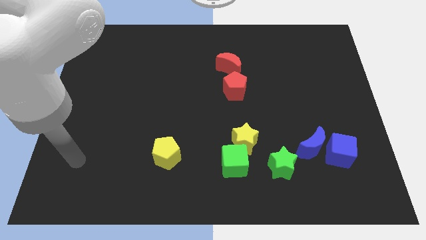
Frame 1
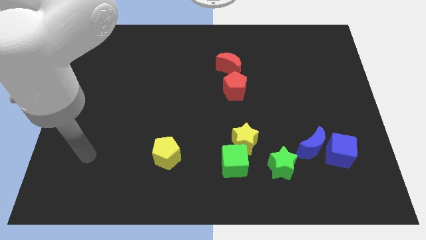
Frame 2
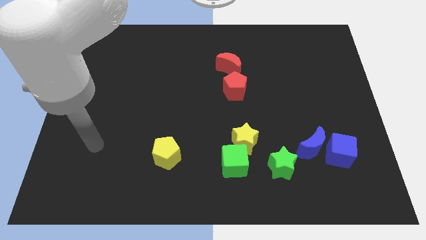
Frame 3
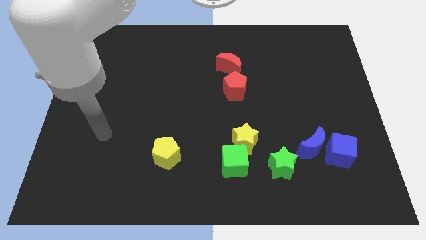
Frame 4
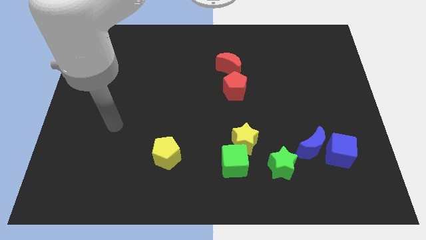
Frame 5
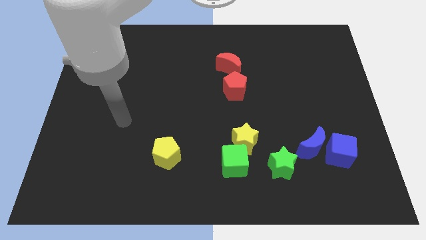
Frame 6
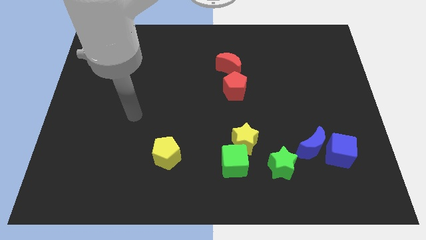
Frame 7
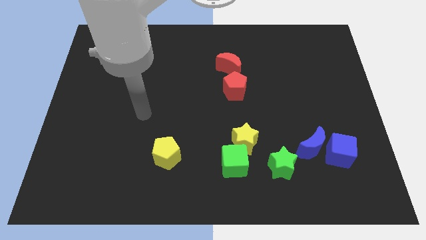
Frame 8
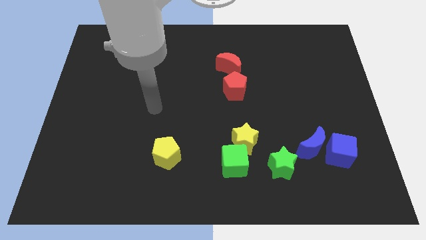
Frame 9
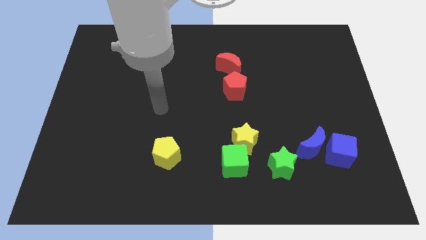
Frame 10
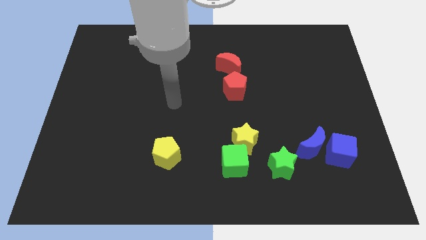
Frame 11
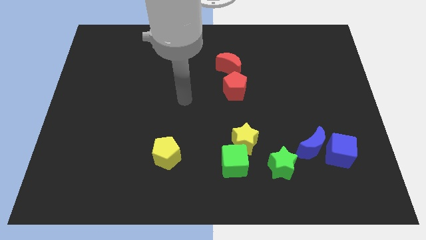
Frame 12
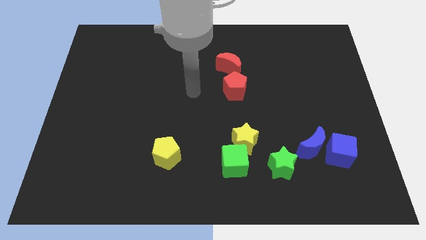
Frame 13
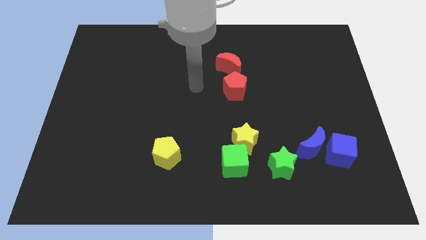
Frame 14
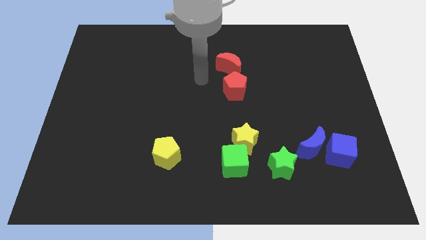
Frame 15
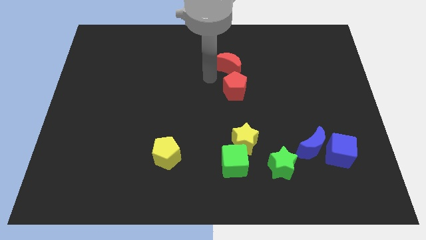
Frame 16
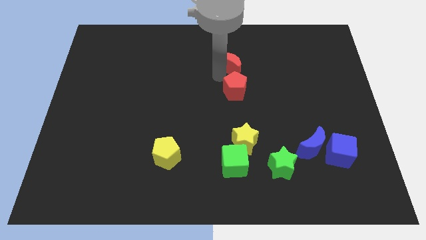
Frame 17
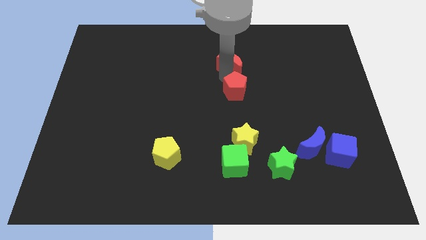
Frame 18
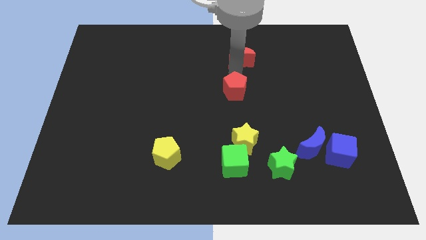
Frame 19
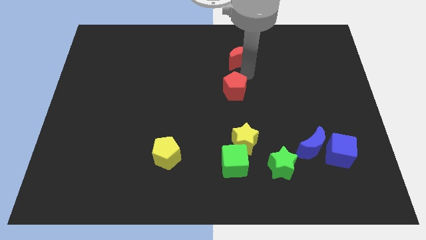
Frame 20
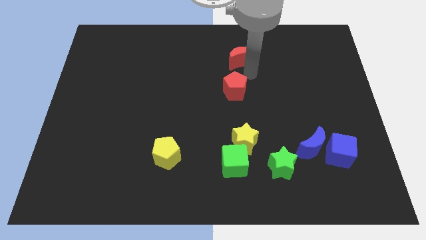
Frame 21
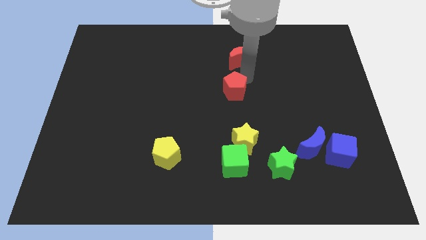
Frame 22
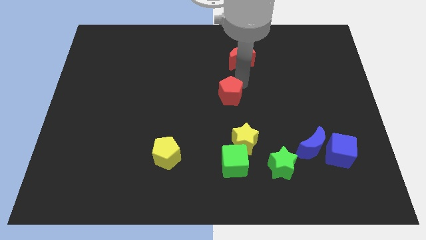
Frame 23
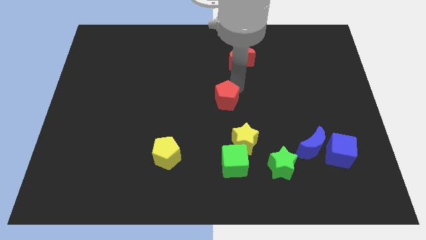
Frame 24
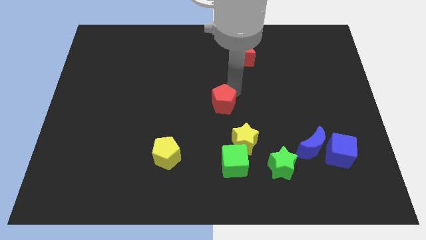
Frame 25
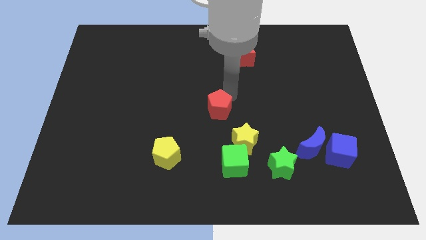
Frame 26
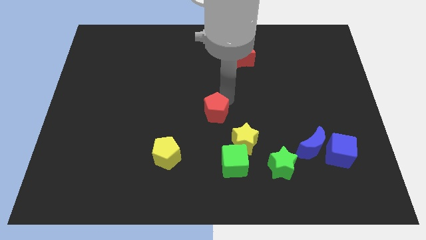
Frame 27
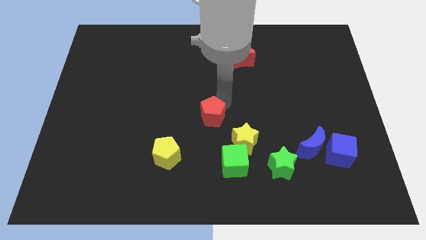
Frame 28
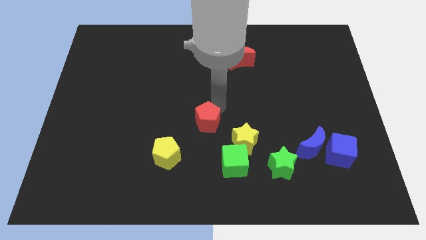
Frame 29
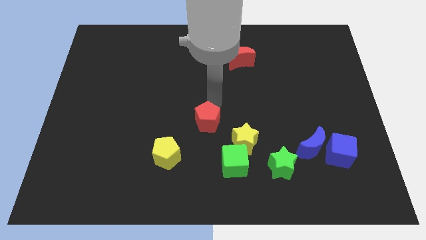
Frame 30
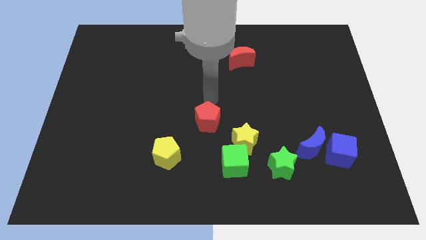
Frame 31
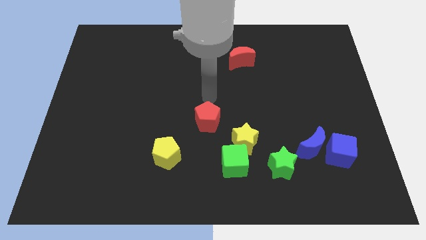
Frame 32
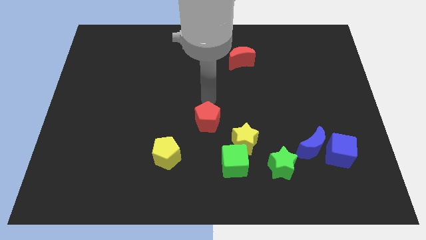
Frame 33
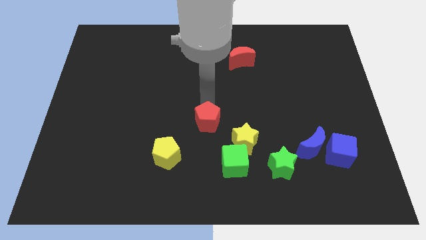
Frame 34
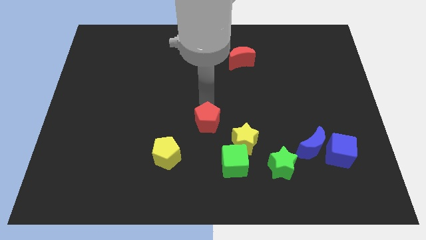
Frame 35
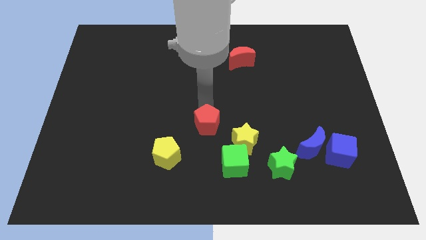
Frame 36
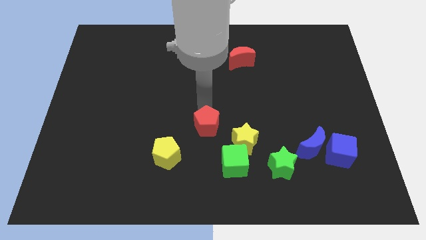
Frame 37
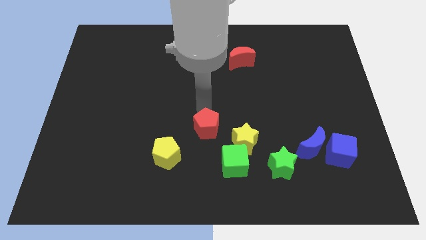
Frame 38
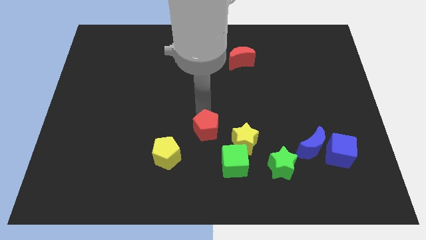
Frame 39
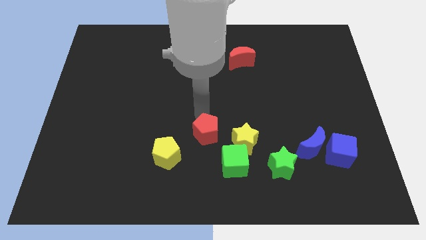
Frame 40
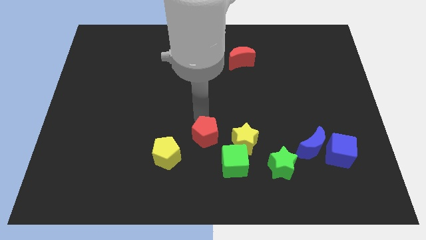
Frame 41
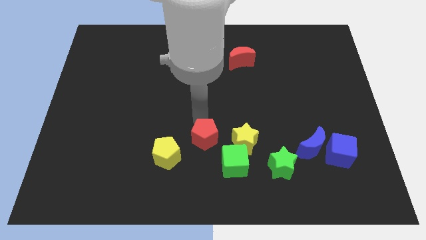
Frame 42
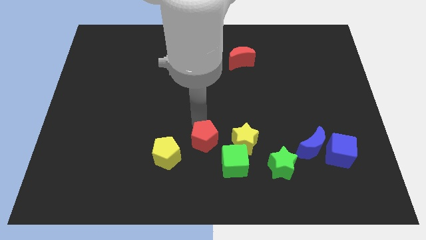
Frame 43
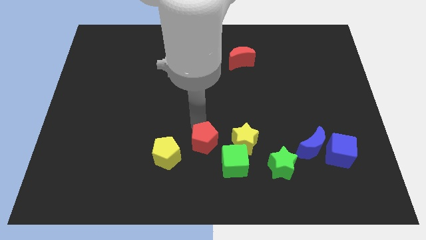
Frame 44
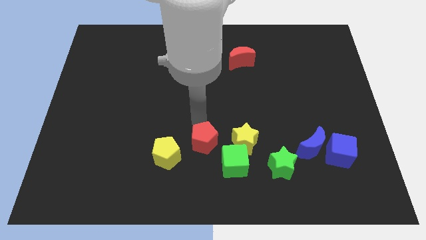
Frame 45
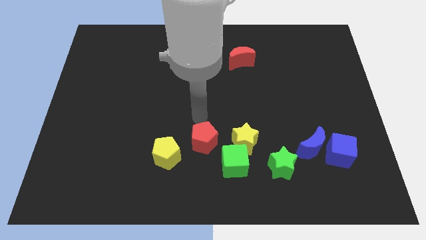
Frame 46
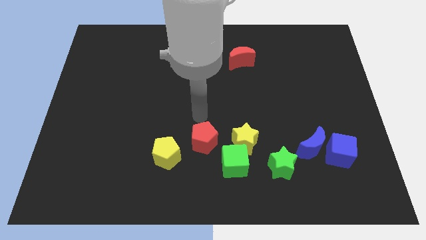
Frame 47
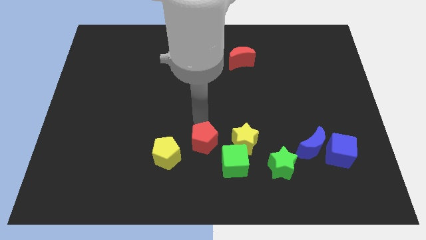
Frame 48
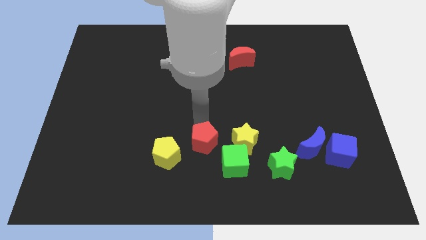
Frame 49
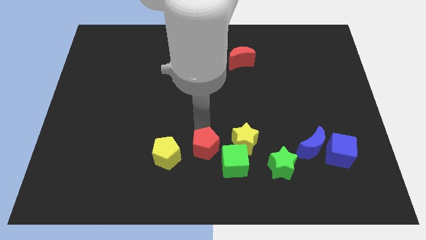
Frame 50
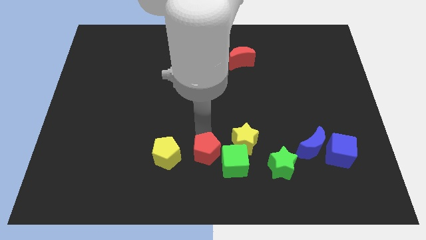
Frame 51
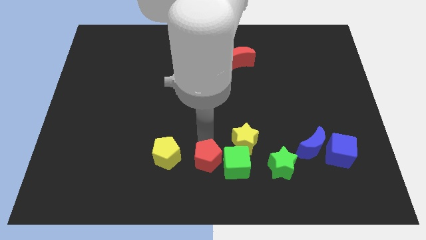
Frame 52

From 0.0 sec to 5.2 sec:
slide the red pentagon to the bottom

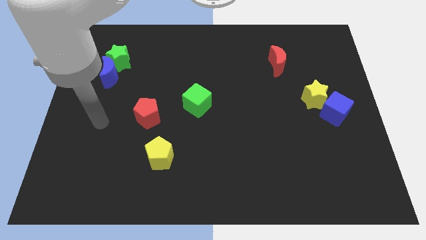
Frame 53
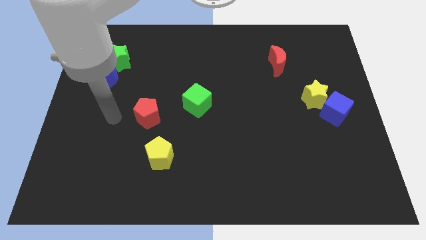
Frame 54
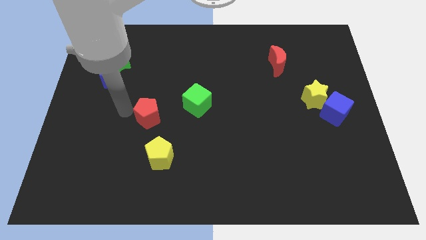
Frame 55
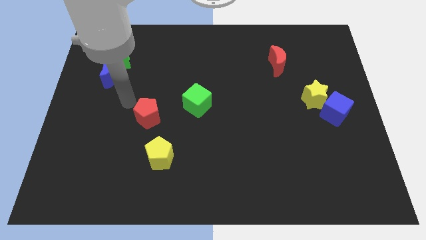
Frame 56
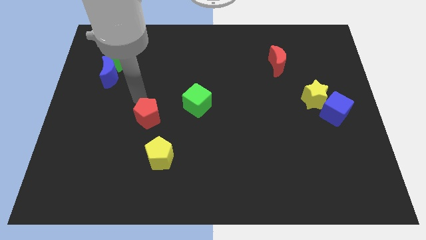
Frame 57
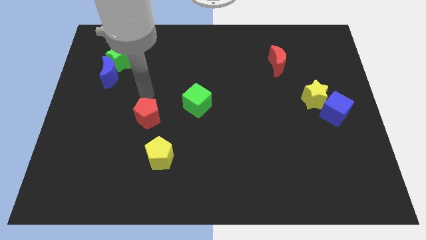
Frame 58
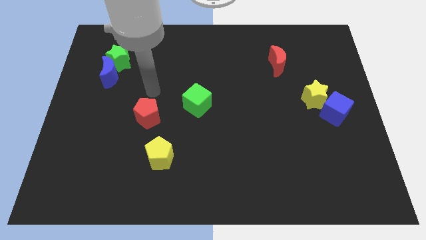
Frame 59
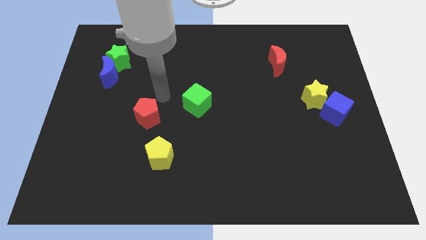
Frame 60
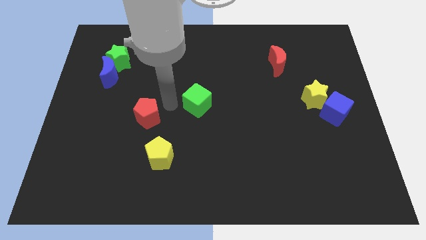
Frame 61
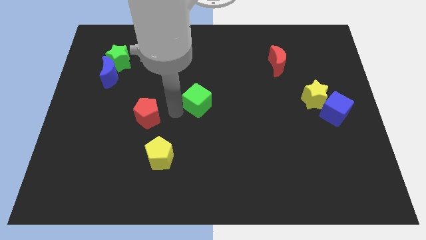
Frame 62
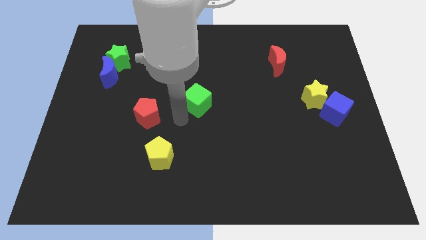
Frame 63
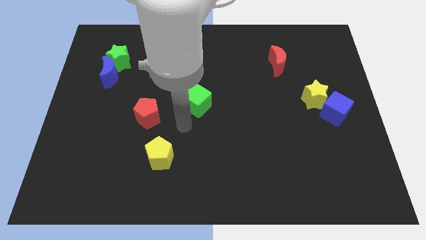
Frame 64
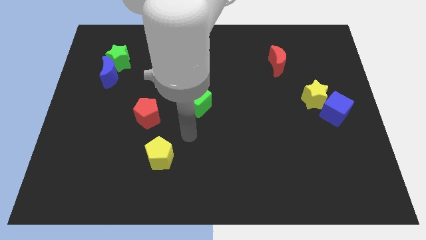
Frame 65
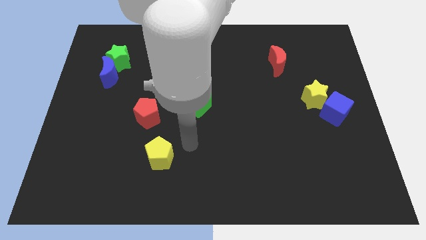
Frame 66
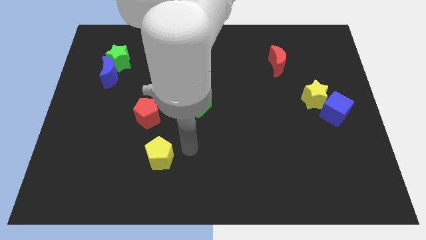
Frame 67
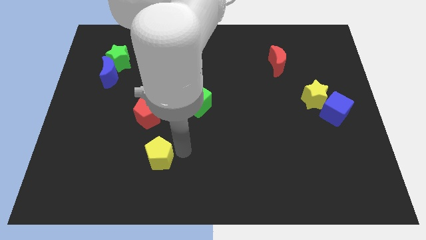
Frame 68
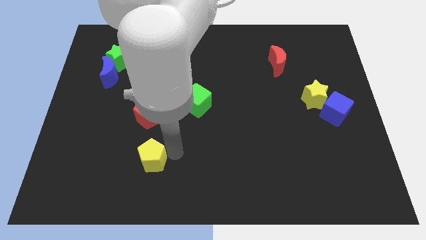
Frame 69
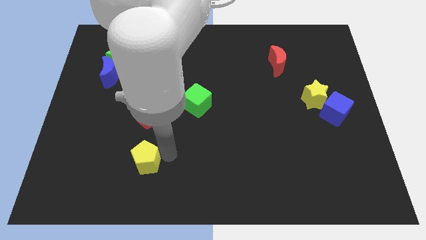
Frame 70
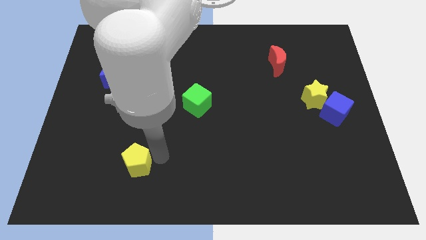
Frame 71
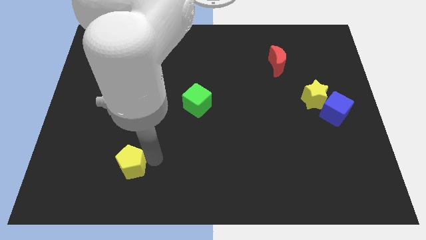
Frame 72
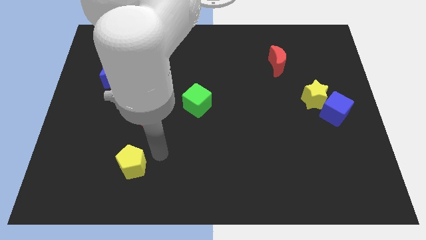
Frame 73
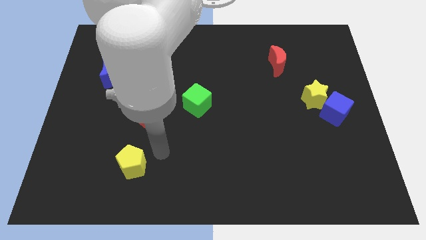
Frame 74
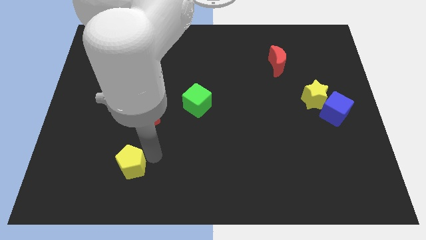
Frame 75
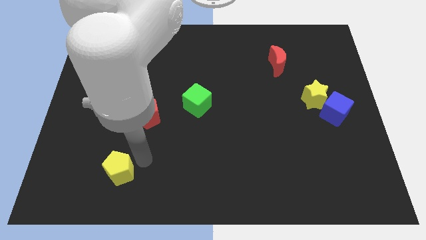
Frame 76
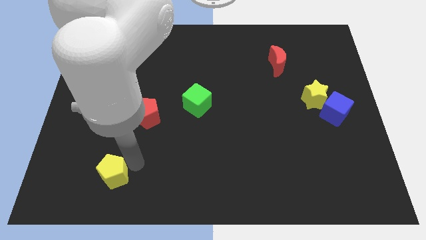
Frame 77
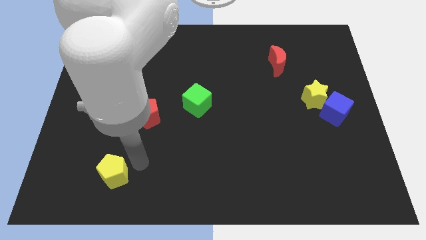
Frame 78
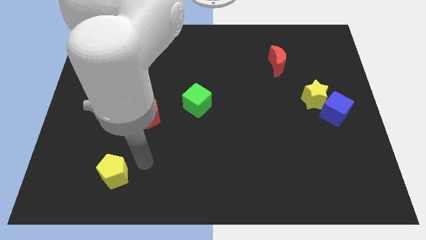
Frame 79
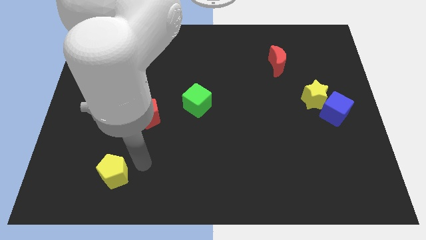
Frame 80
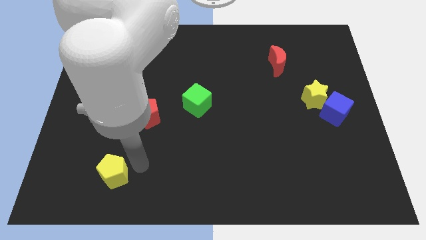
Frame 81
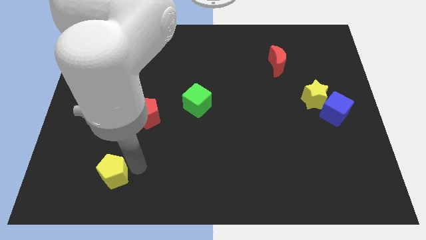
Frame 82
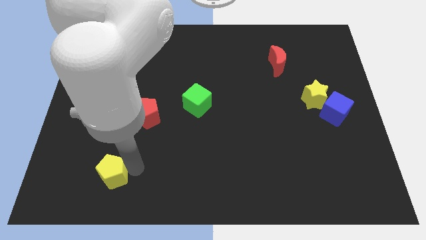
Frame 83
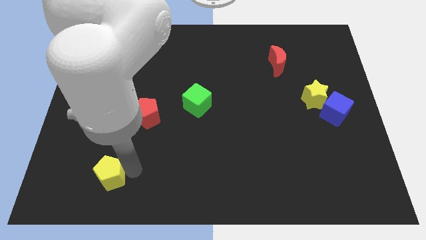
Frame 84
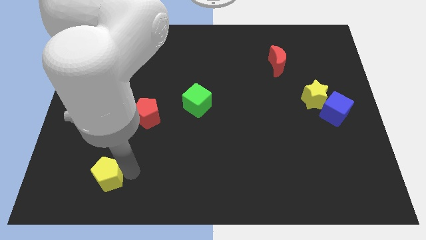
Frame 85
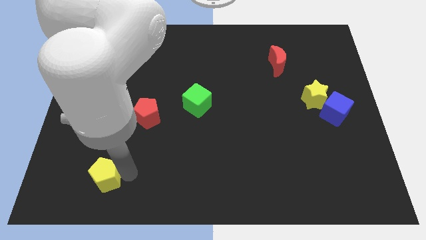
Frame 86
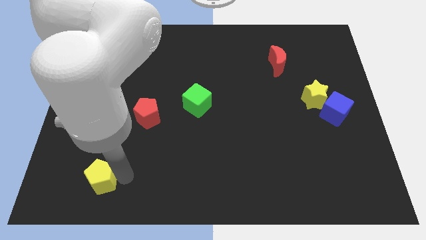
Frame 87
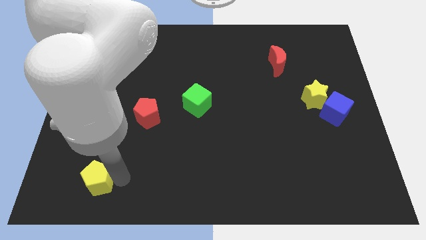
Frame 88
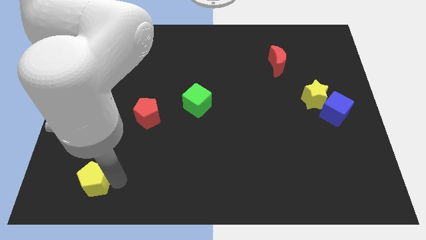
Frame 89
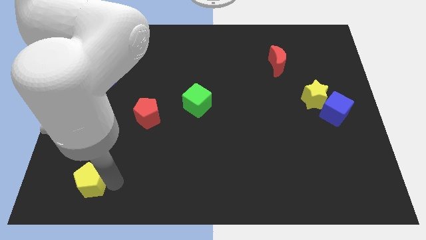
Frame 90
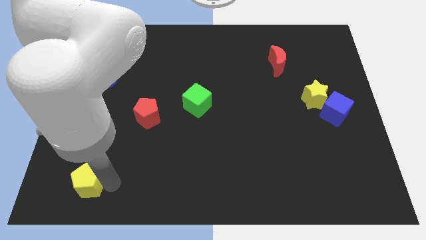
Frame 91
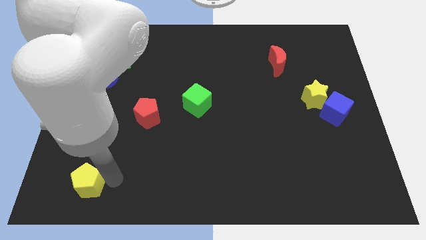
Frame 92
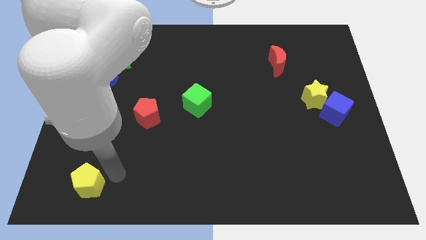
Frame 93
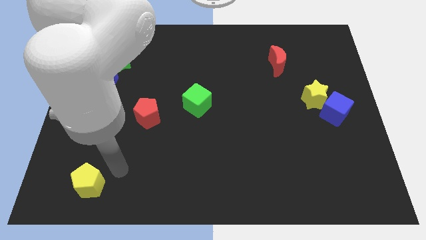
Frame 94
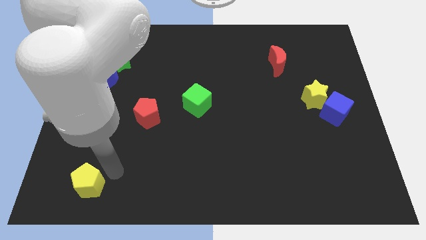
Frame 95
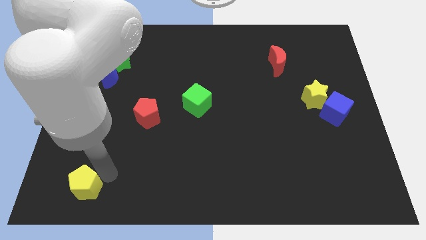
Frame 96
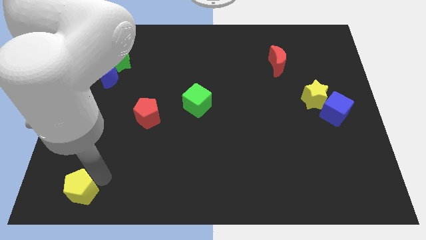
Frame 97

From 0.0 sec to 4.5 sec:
slide the yellow pentagon to the bottom left corner
